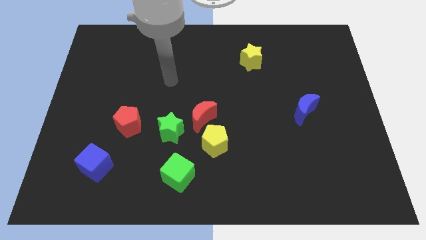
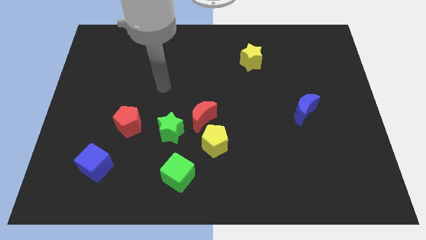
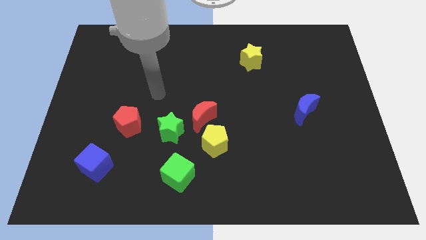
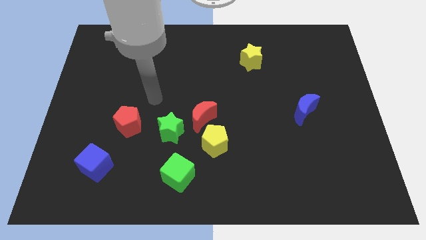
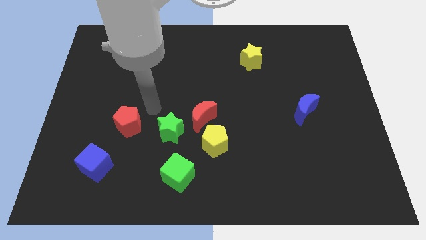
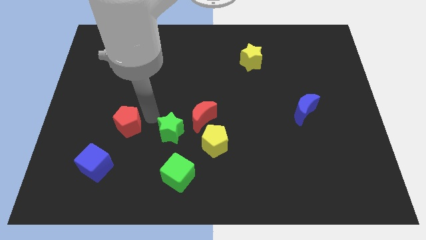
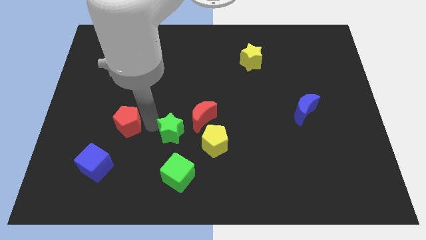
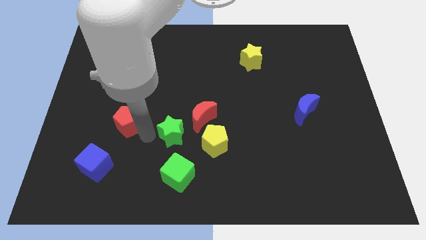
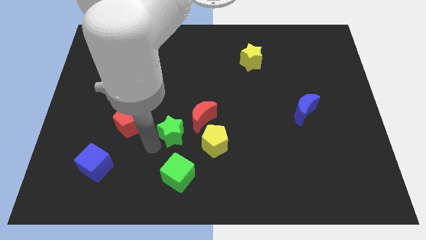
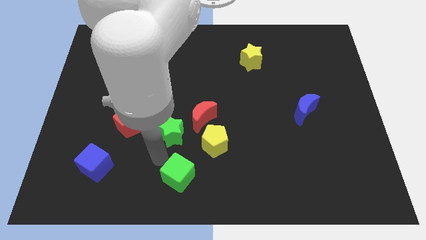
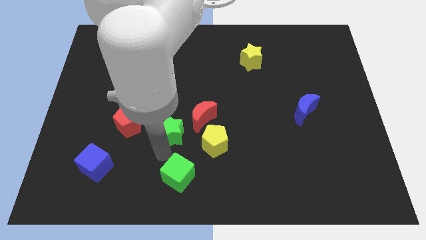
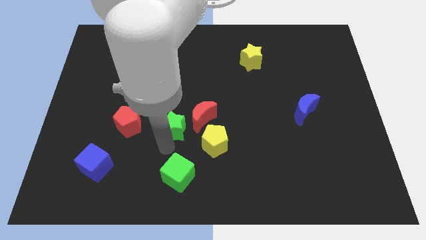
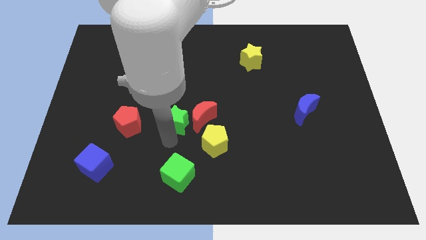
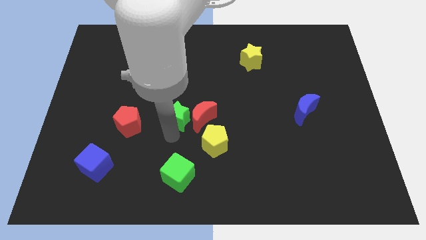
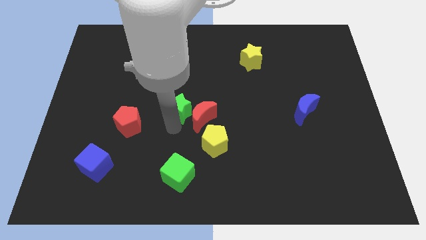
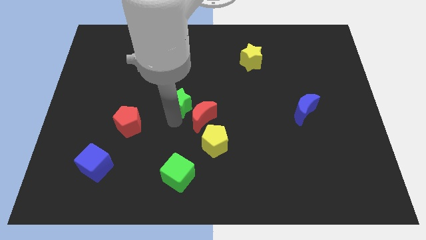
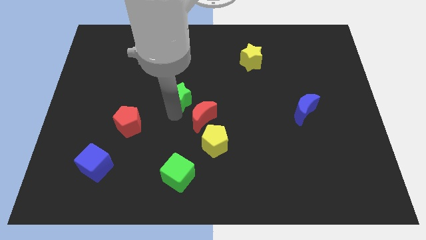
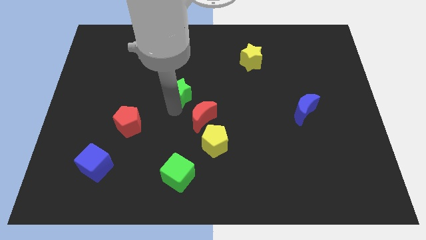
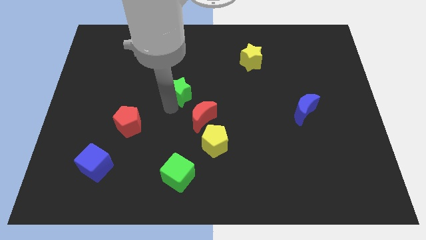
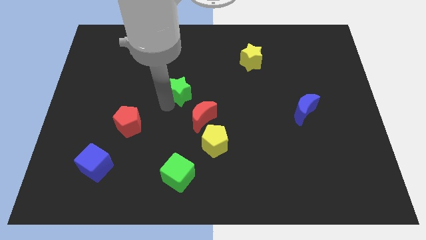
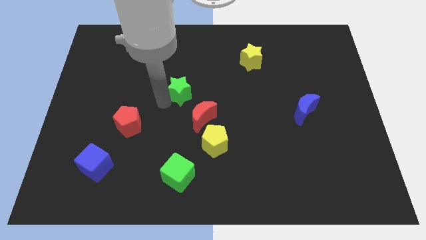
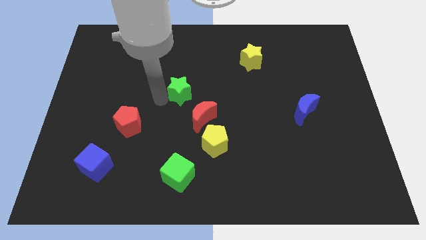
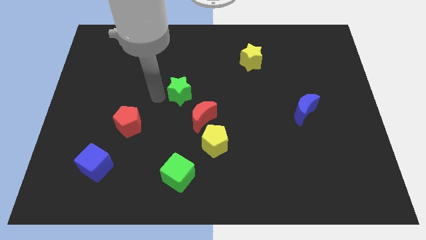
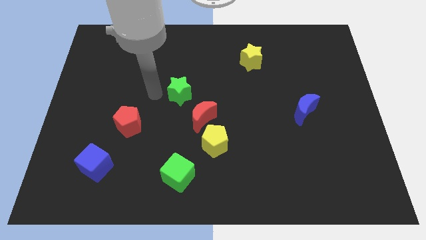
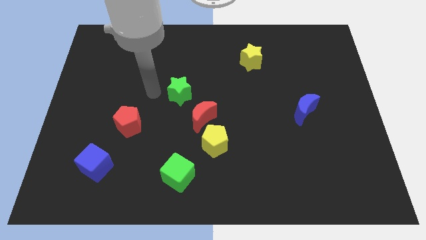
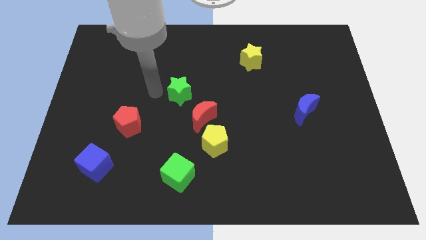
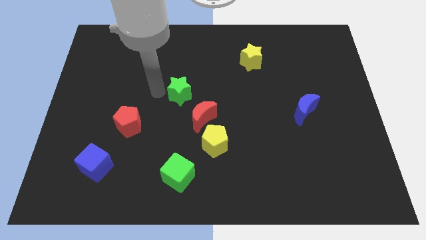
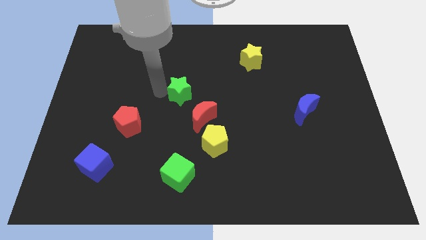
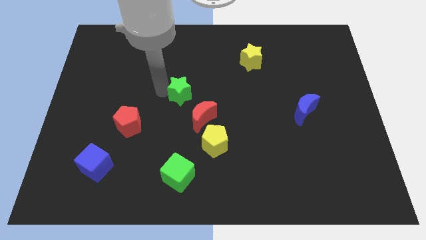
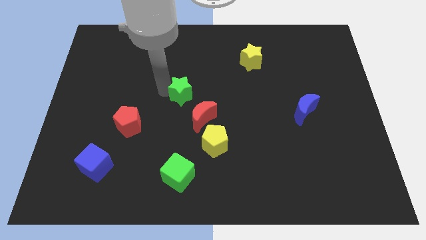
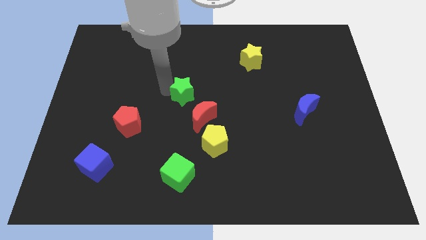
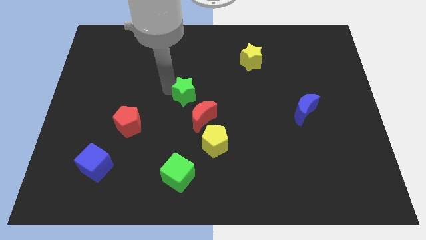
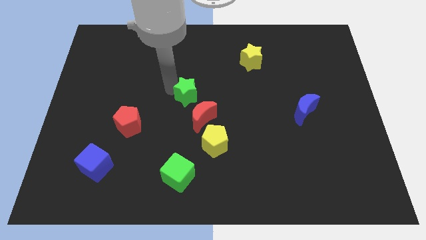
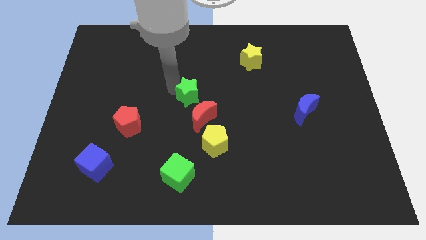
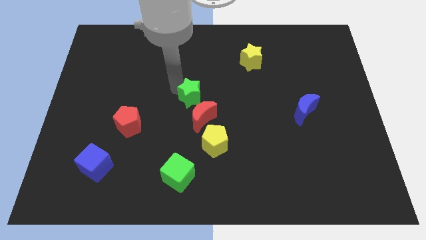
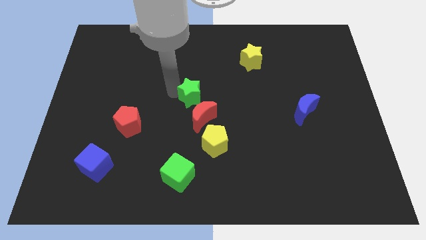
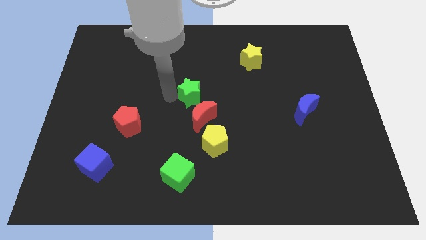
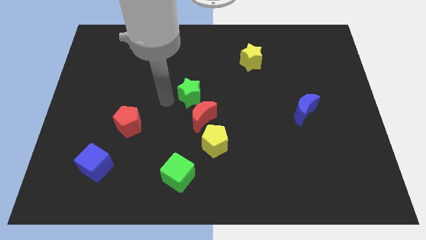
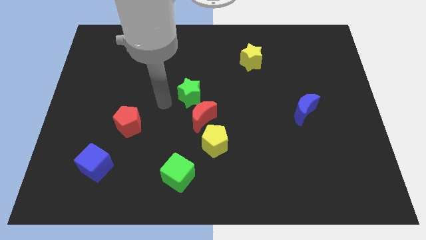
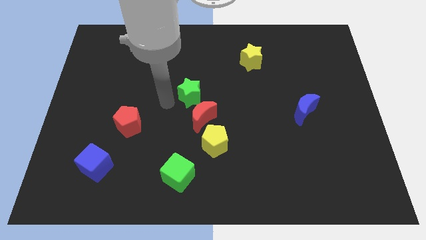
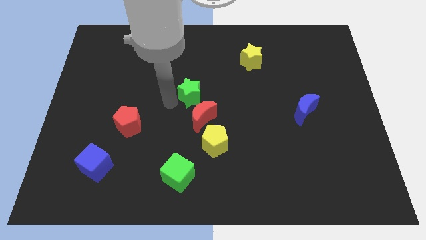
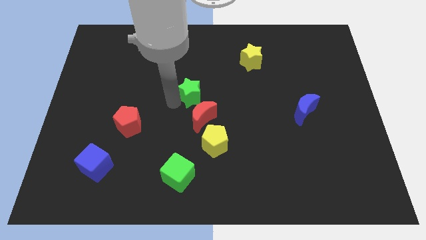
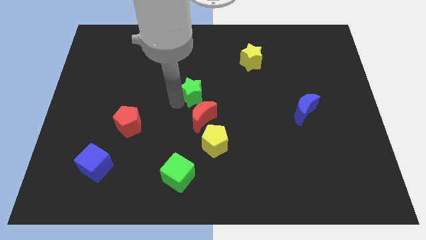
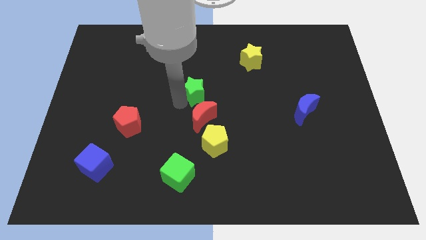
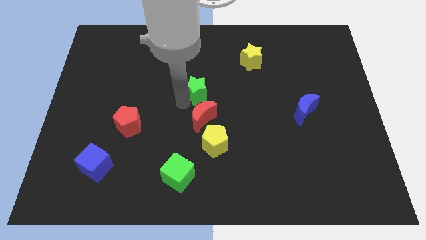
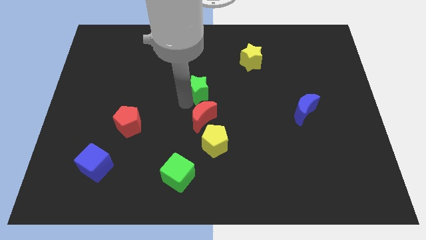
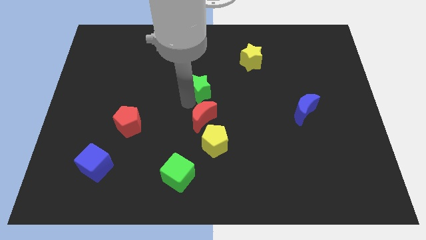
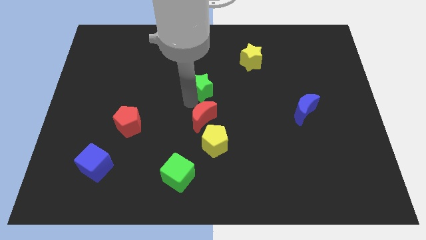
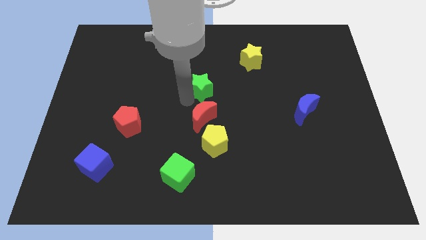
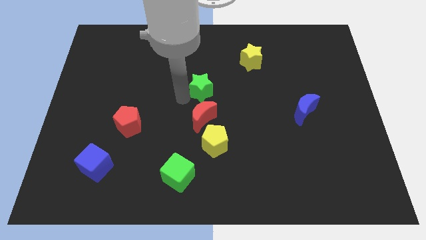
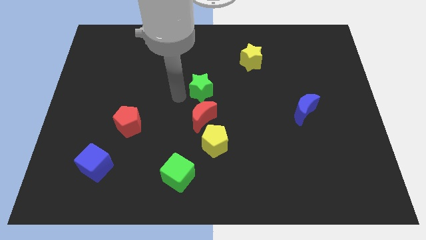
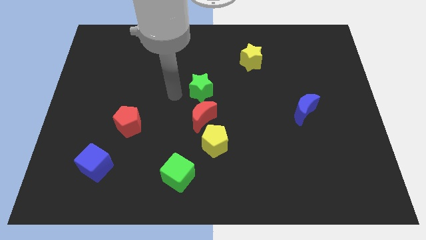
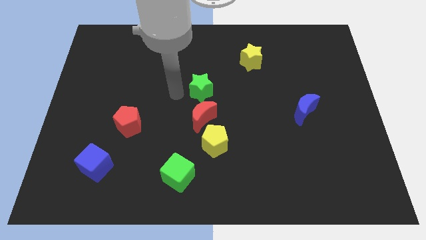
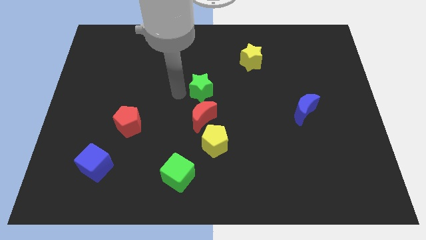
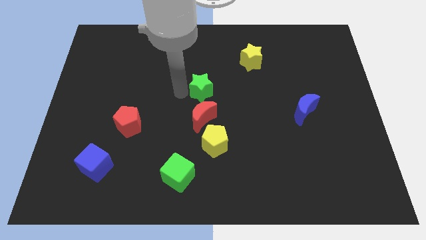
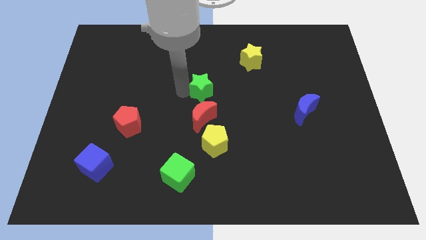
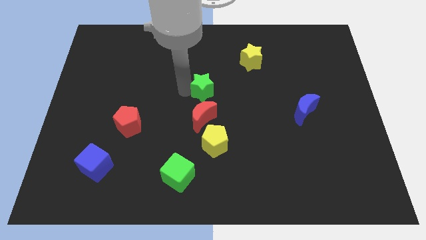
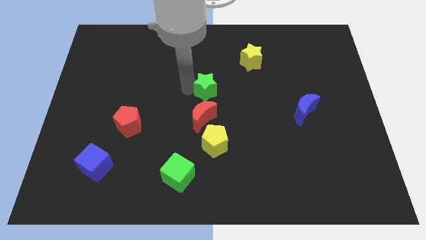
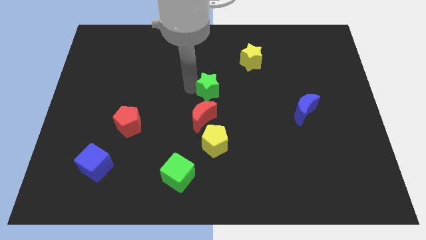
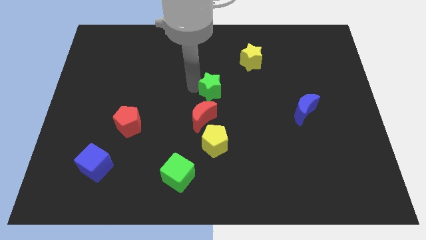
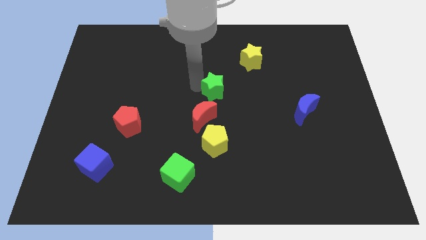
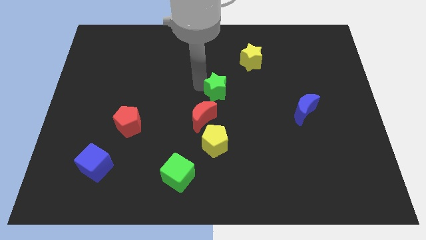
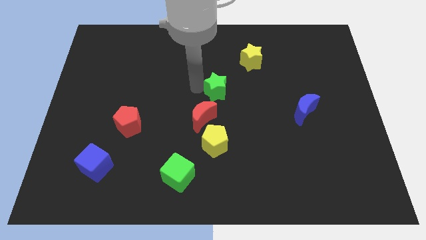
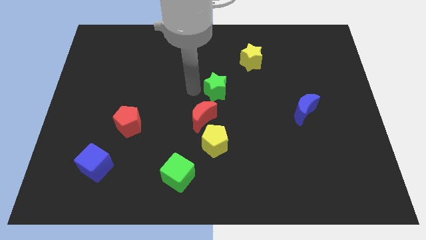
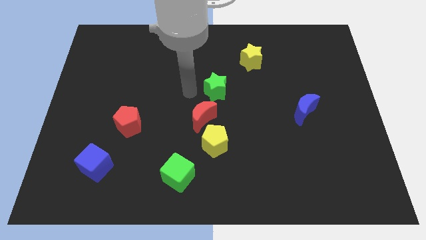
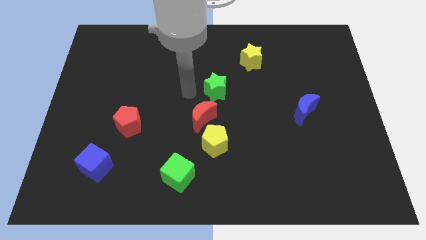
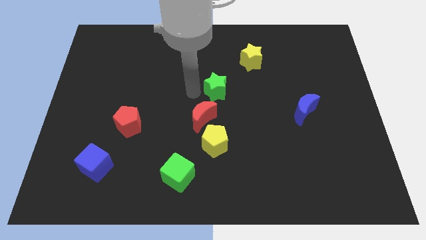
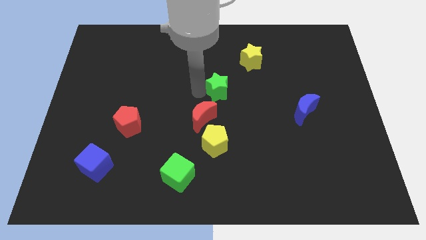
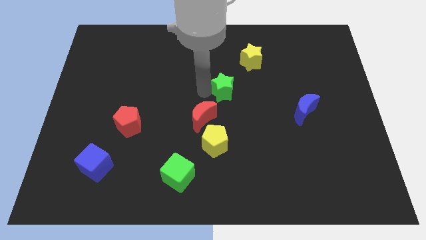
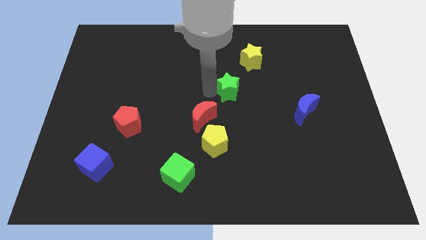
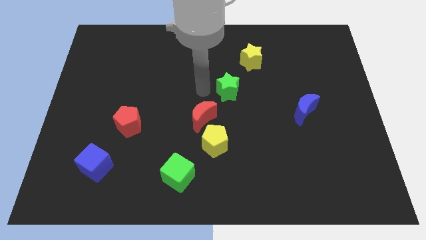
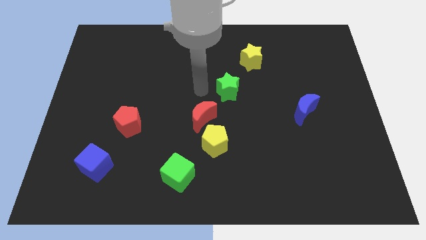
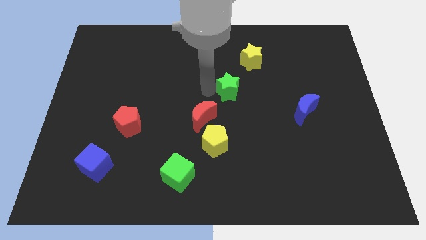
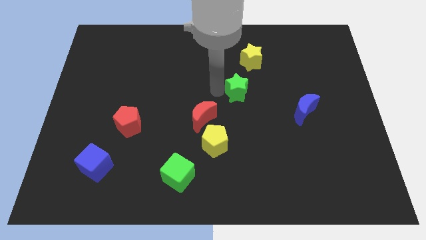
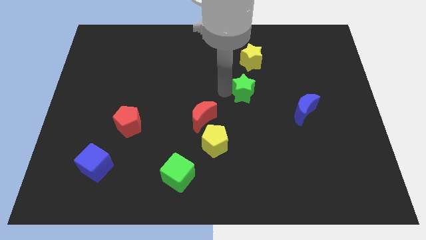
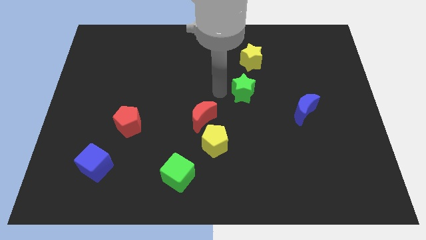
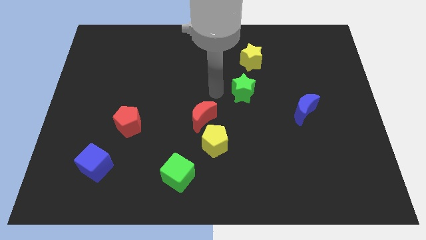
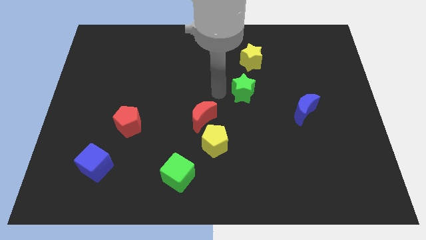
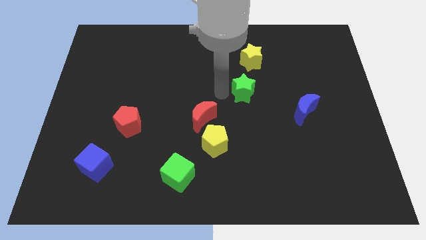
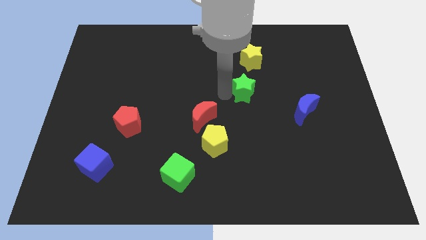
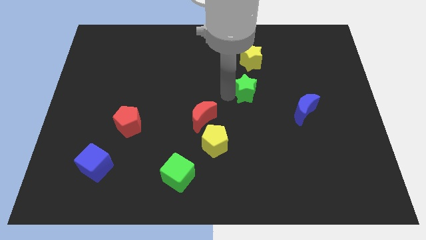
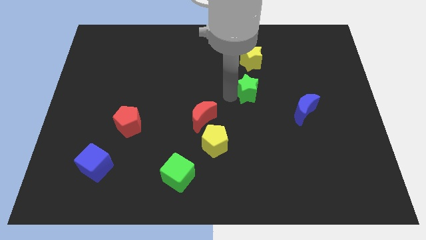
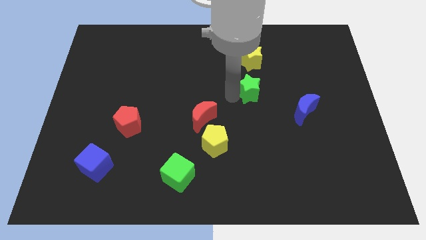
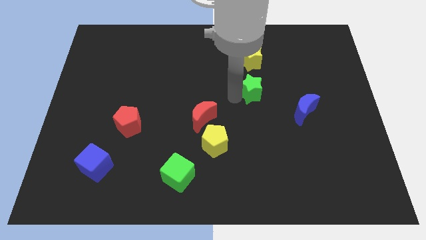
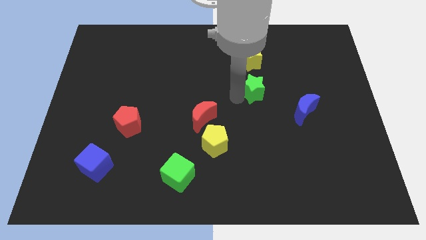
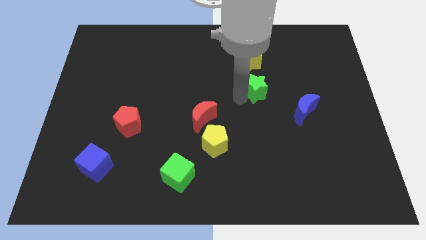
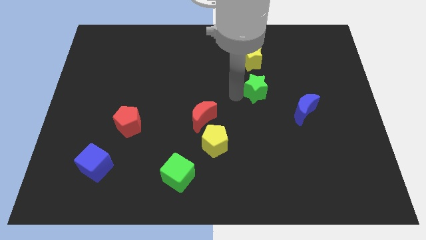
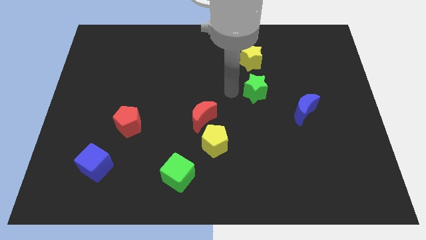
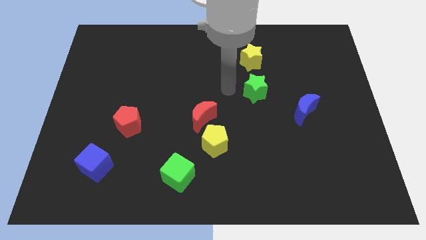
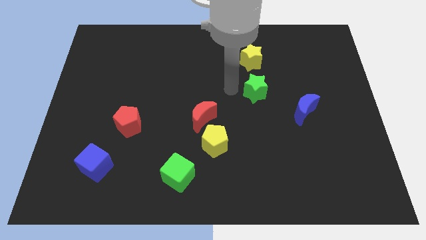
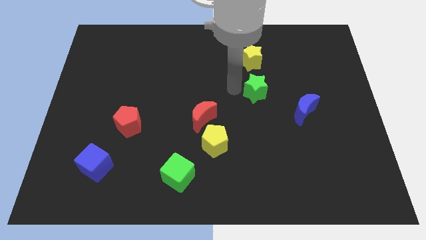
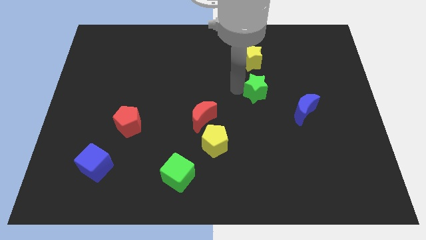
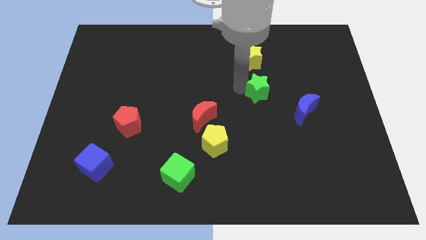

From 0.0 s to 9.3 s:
move the green star to the top left of the blue moon
